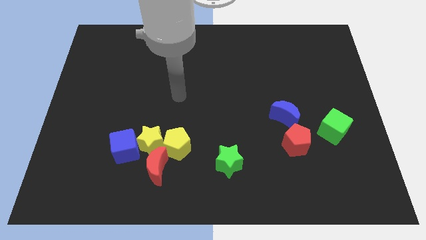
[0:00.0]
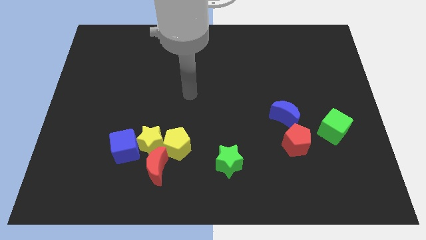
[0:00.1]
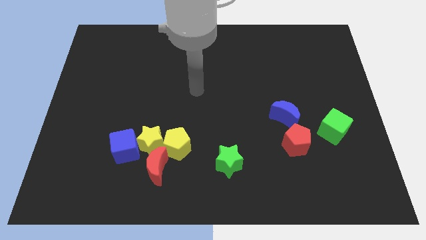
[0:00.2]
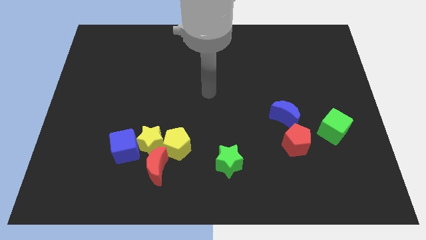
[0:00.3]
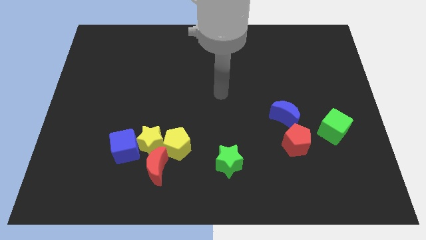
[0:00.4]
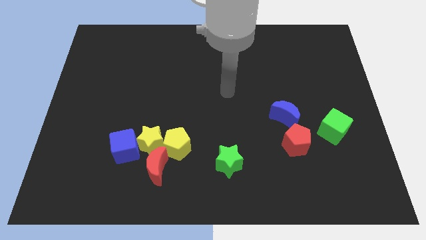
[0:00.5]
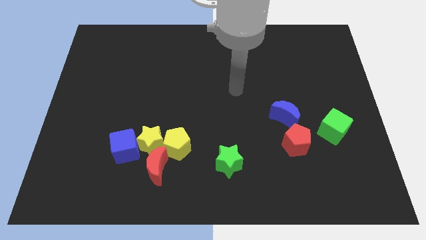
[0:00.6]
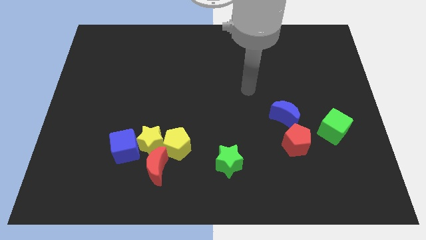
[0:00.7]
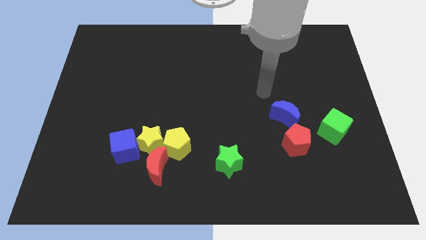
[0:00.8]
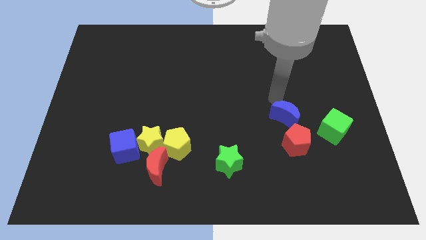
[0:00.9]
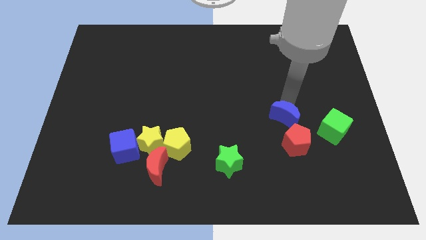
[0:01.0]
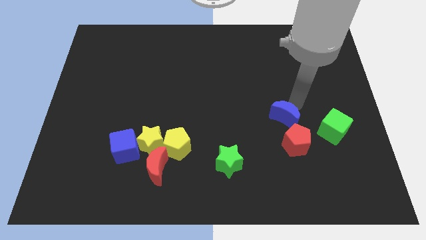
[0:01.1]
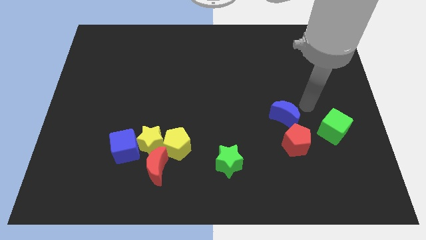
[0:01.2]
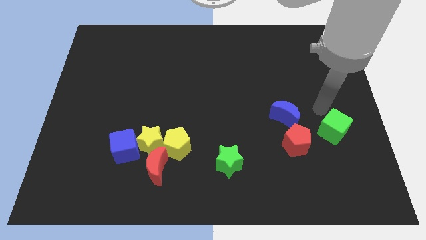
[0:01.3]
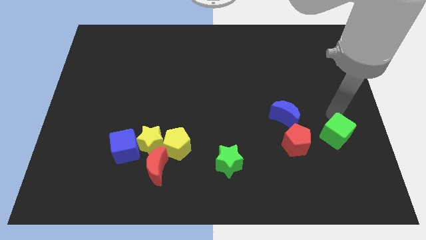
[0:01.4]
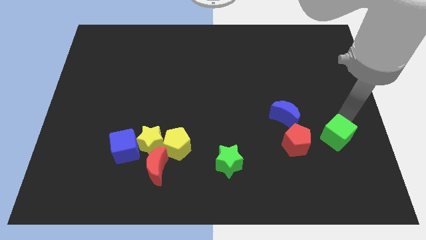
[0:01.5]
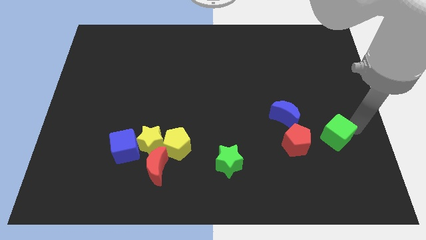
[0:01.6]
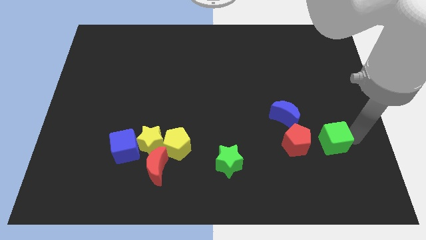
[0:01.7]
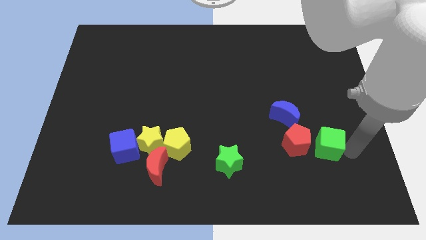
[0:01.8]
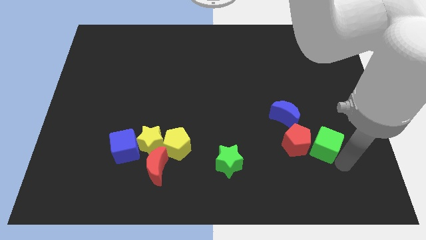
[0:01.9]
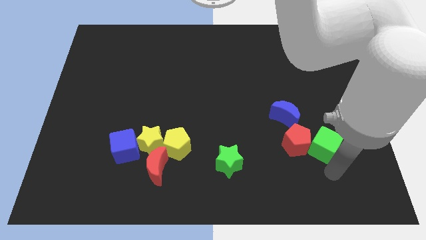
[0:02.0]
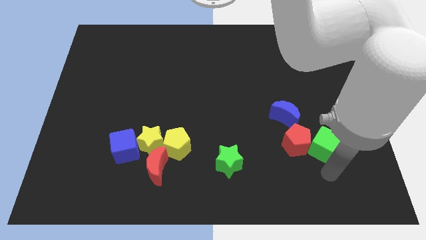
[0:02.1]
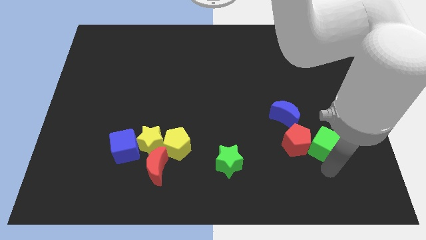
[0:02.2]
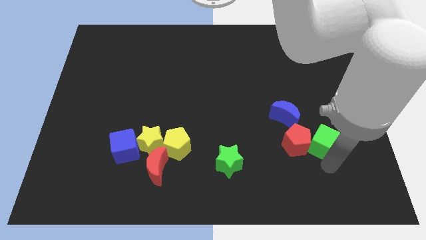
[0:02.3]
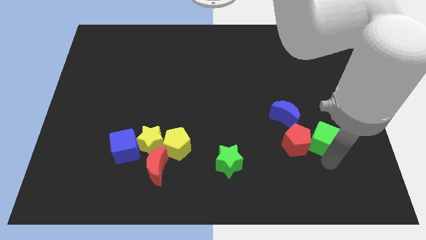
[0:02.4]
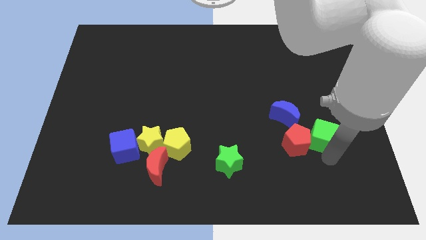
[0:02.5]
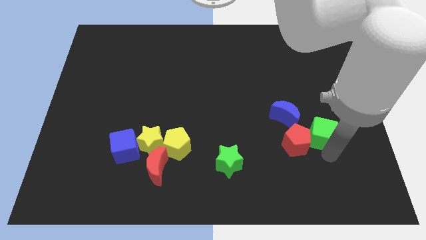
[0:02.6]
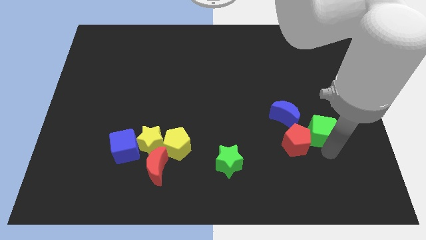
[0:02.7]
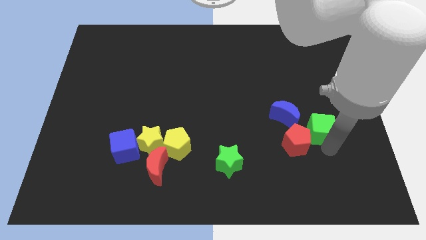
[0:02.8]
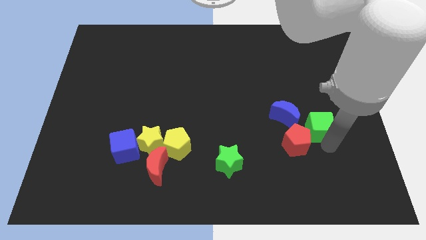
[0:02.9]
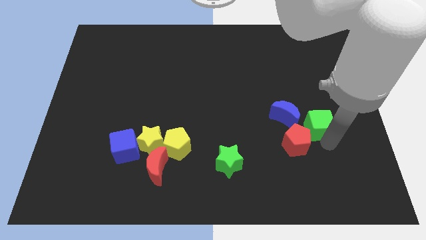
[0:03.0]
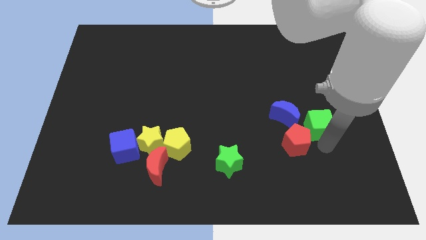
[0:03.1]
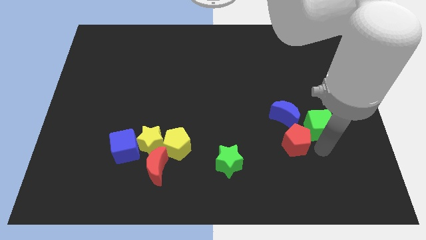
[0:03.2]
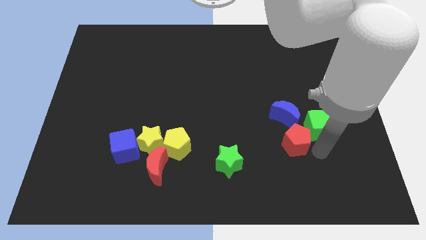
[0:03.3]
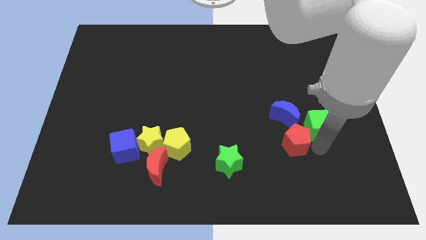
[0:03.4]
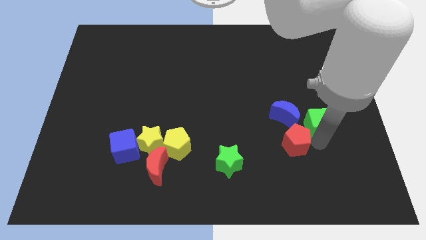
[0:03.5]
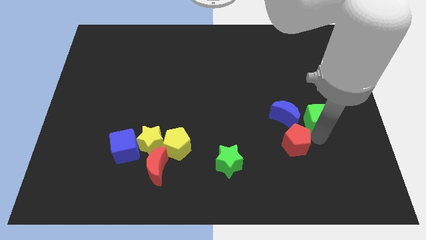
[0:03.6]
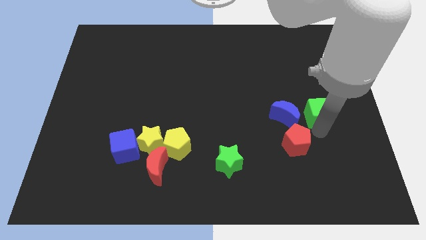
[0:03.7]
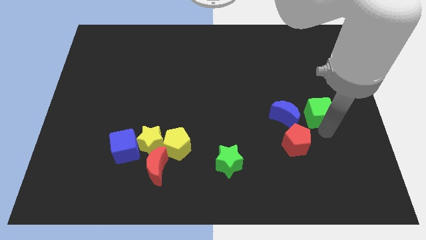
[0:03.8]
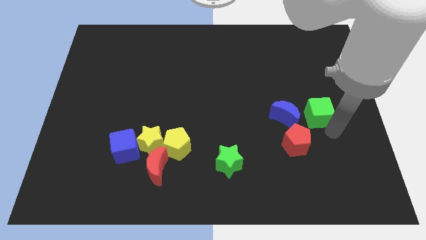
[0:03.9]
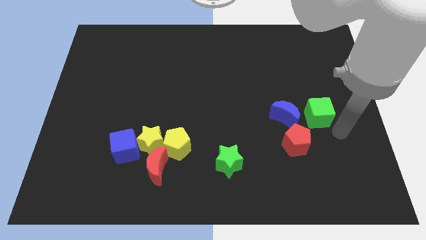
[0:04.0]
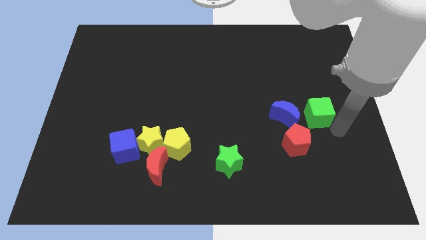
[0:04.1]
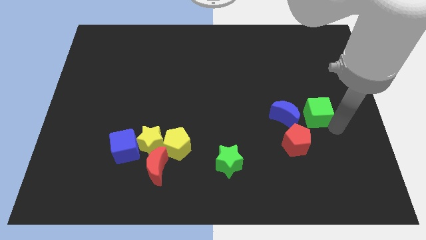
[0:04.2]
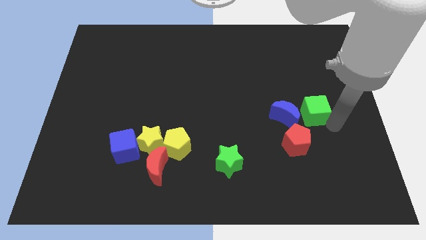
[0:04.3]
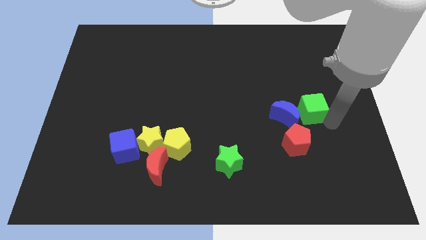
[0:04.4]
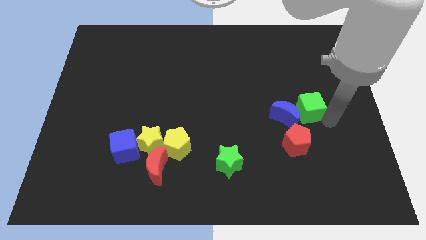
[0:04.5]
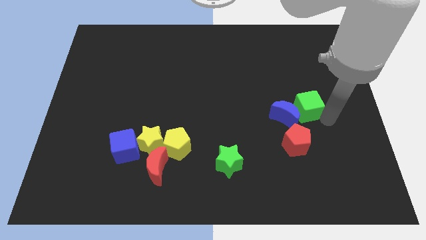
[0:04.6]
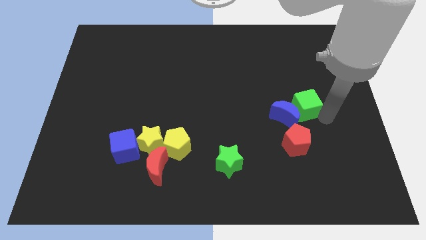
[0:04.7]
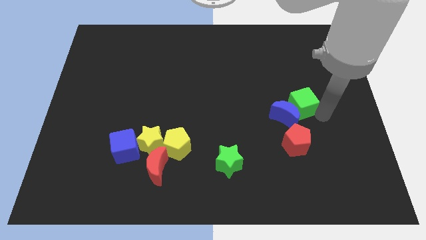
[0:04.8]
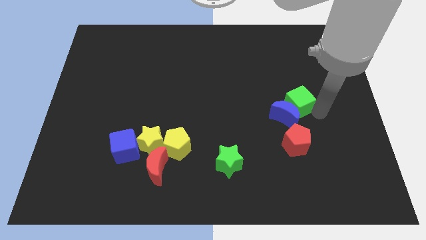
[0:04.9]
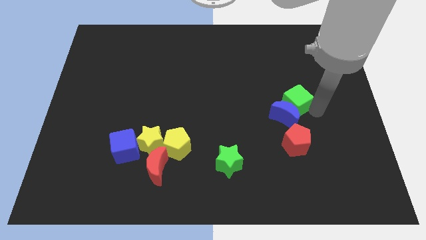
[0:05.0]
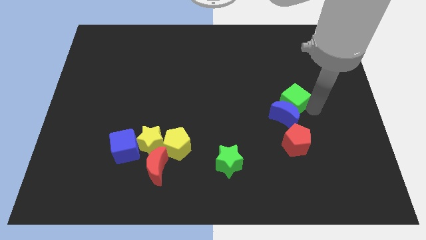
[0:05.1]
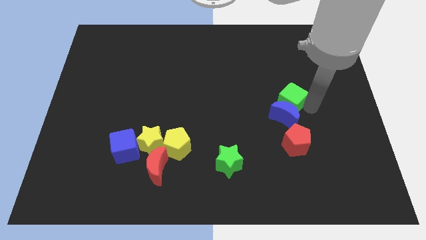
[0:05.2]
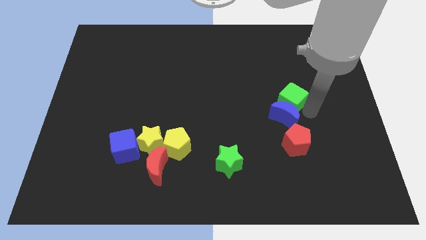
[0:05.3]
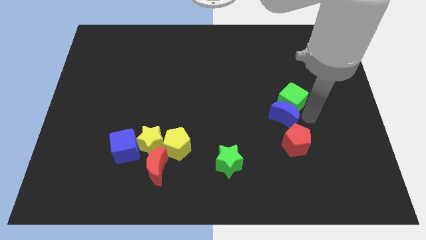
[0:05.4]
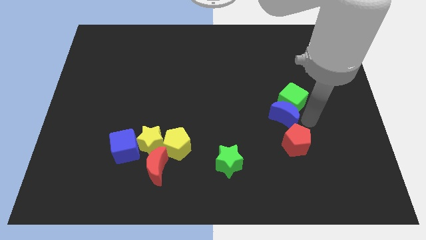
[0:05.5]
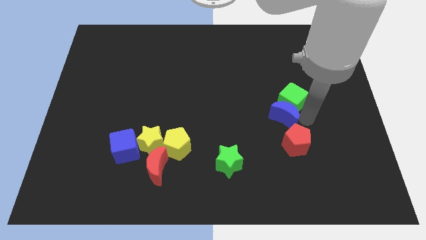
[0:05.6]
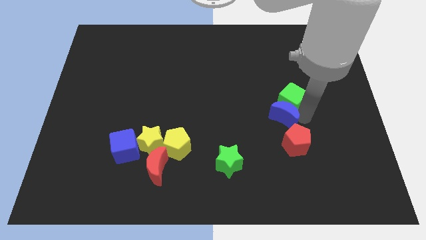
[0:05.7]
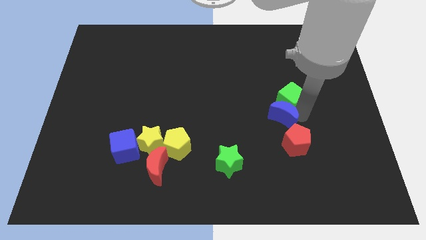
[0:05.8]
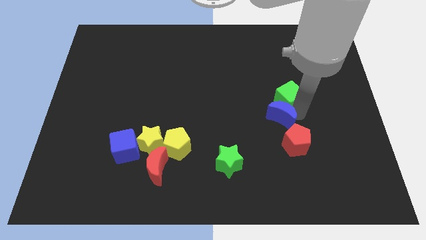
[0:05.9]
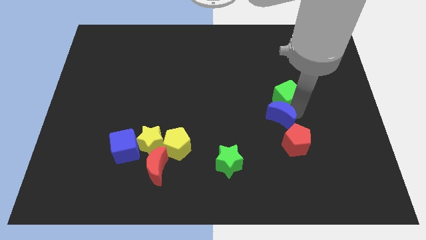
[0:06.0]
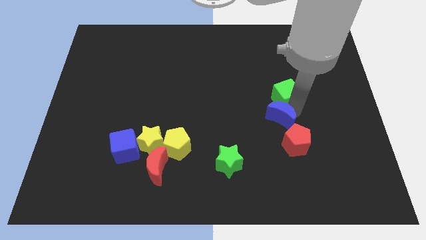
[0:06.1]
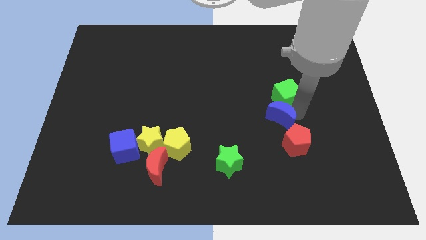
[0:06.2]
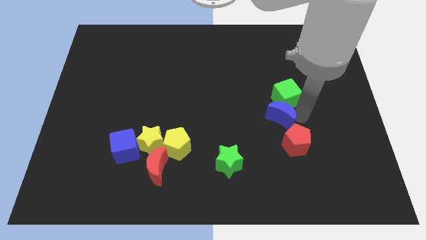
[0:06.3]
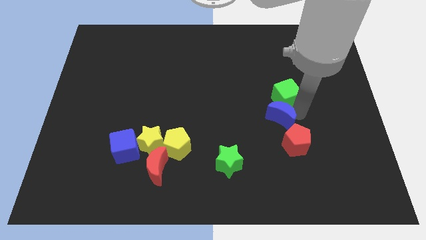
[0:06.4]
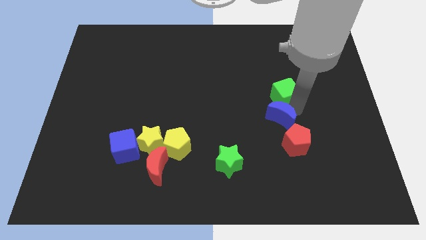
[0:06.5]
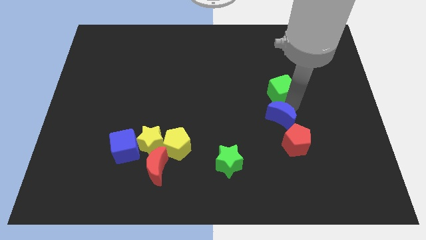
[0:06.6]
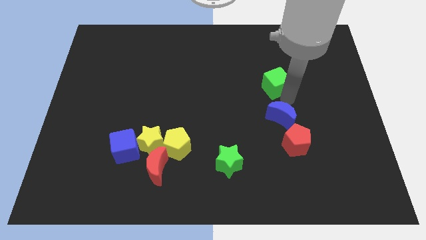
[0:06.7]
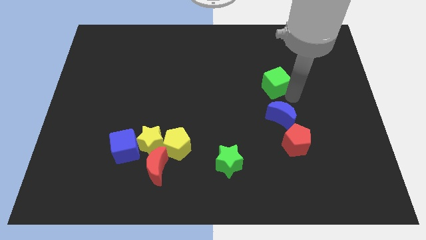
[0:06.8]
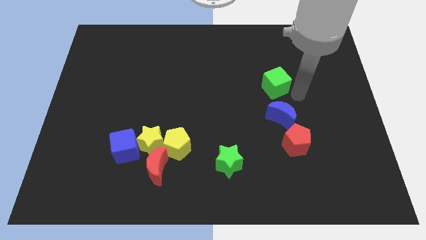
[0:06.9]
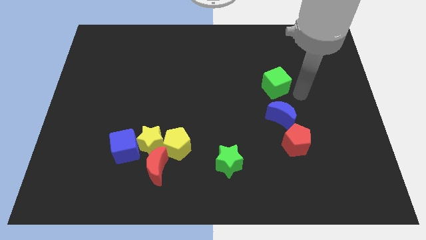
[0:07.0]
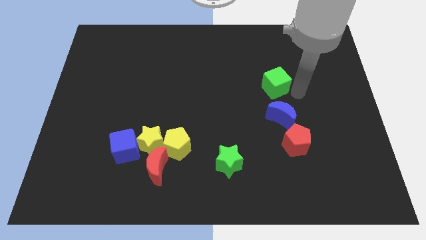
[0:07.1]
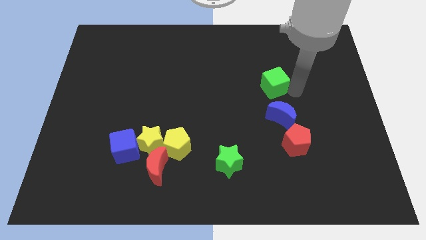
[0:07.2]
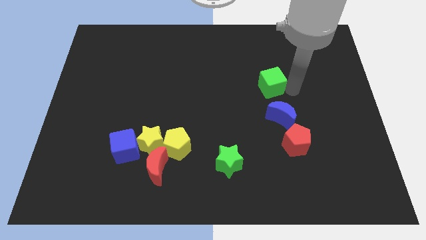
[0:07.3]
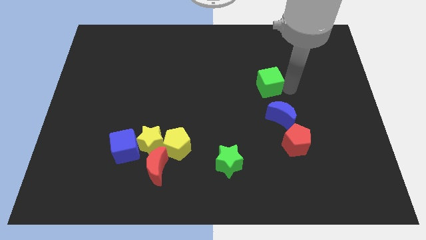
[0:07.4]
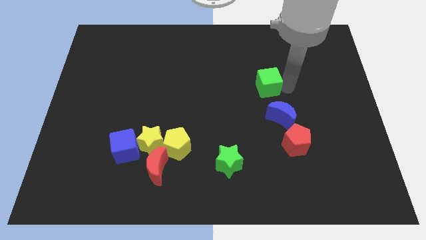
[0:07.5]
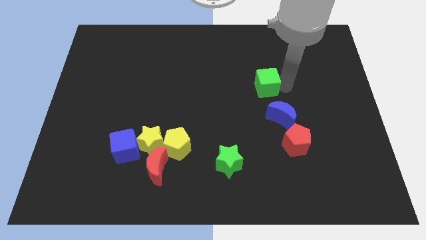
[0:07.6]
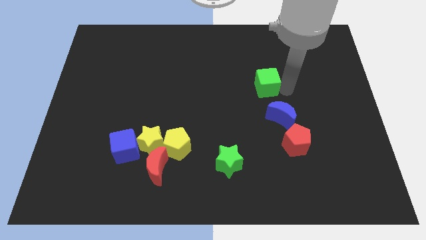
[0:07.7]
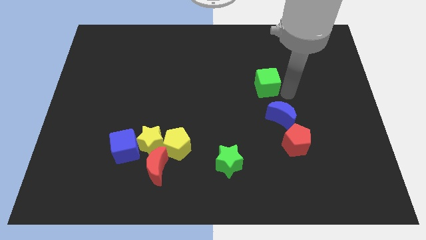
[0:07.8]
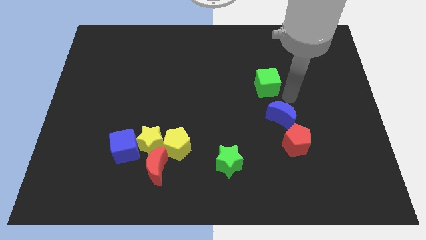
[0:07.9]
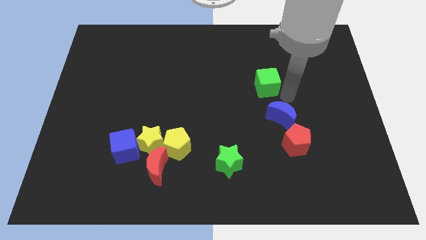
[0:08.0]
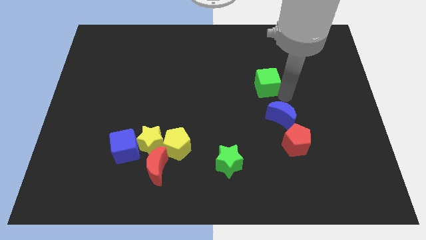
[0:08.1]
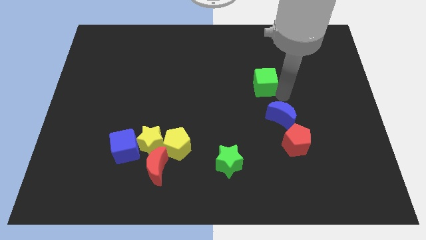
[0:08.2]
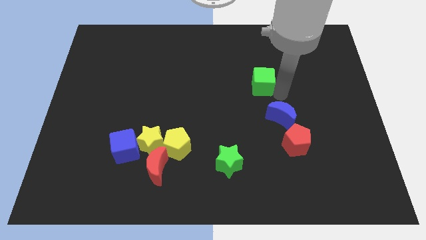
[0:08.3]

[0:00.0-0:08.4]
push the green cube up and then to the left

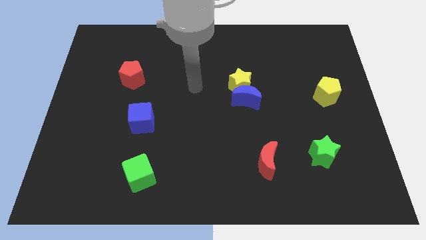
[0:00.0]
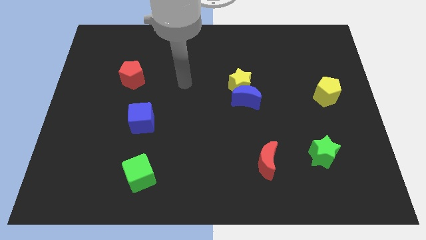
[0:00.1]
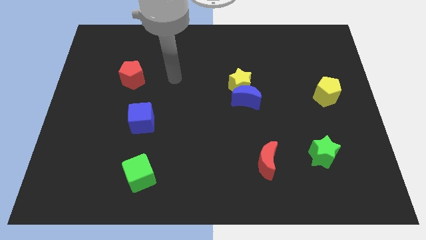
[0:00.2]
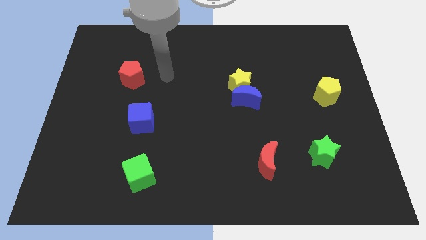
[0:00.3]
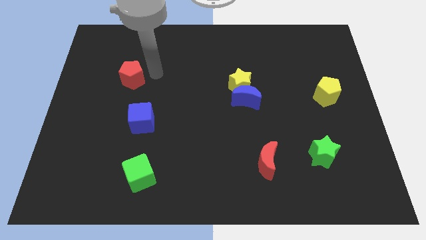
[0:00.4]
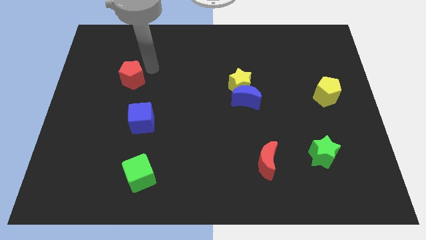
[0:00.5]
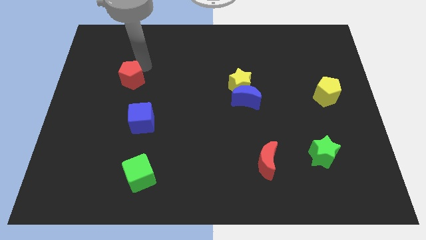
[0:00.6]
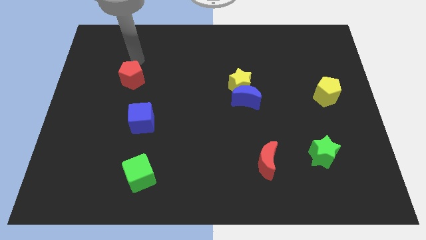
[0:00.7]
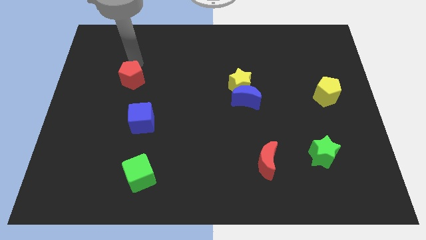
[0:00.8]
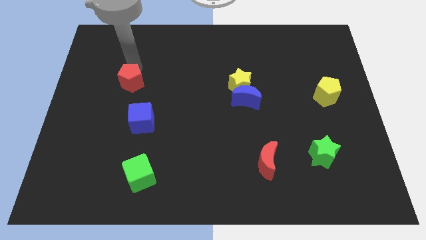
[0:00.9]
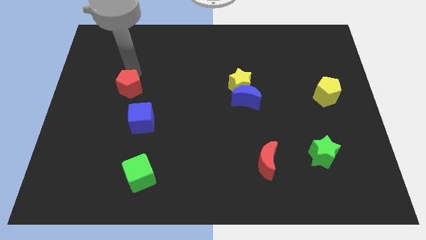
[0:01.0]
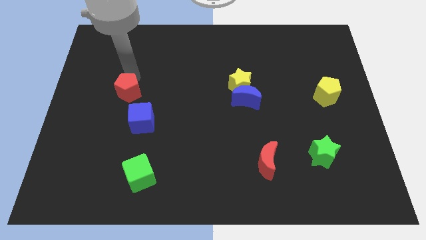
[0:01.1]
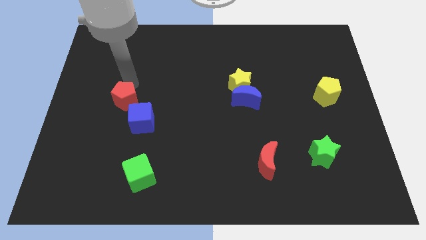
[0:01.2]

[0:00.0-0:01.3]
slightly slide the red pentagon down
